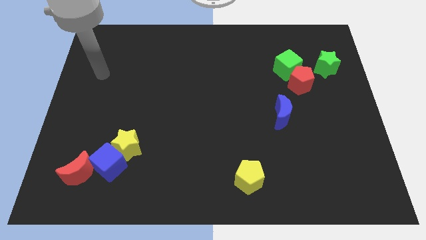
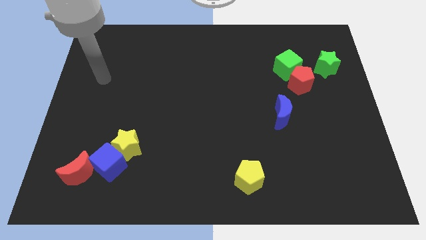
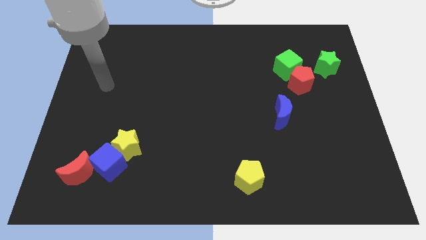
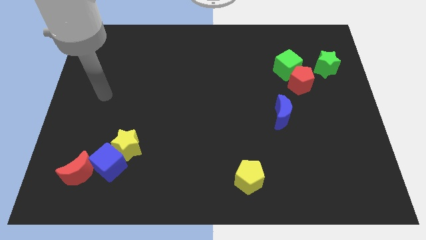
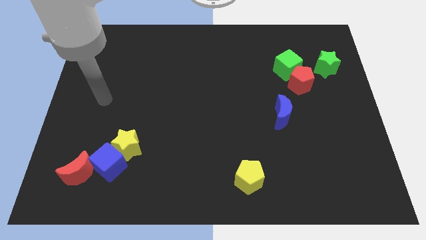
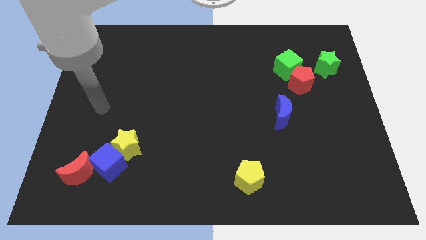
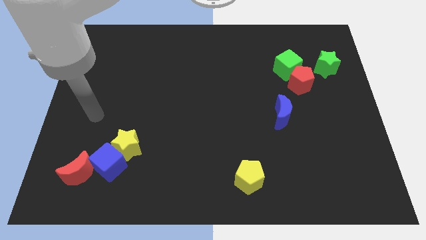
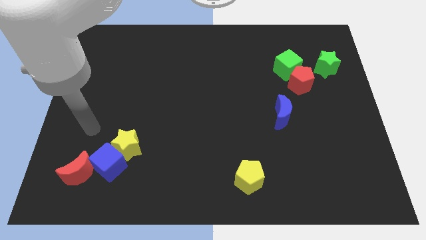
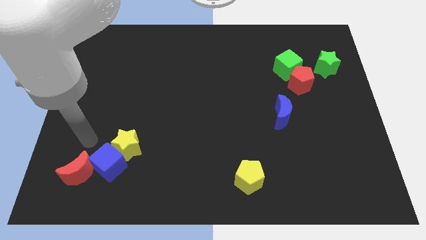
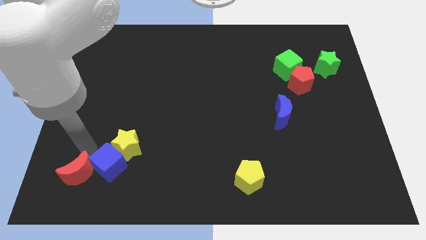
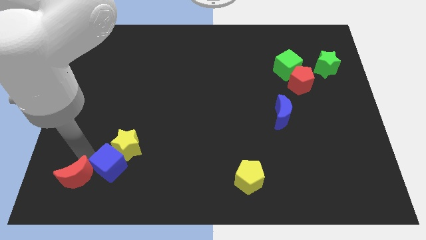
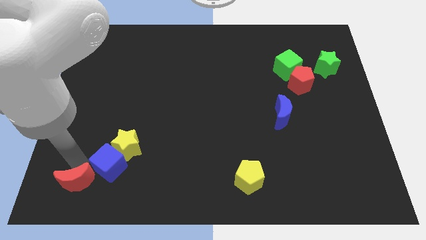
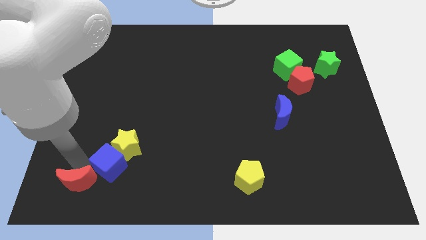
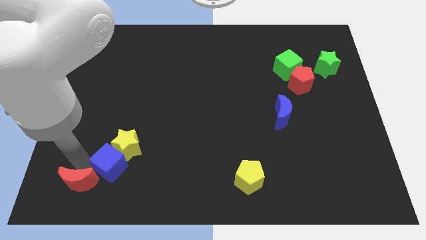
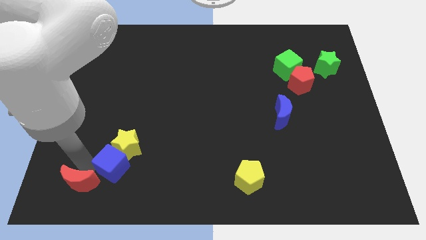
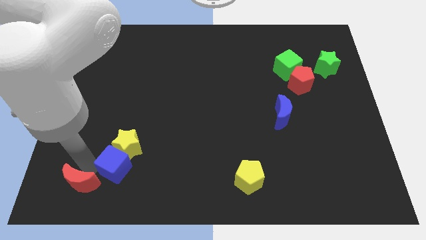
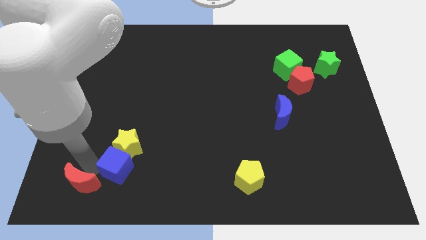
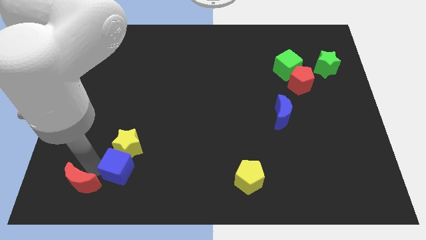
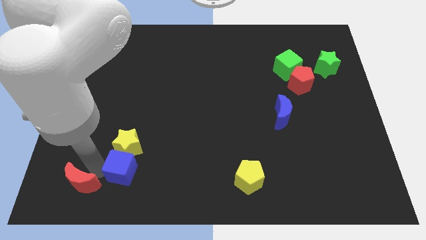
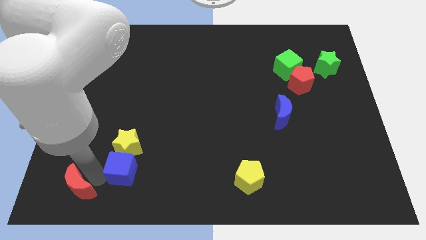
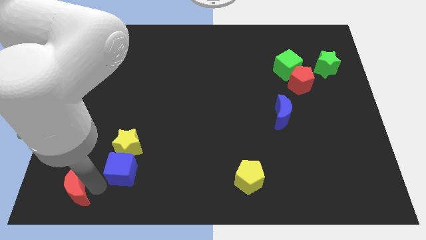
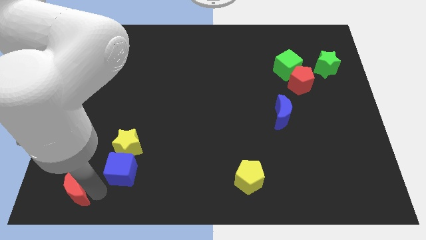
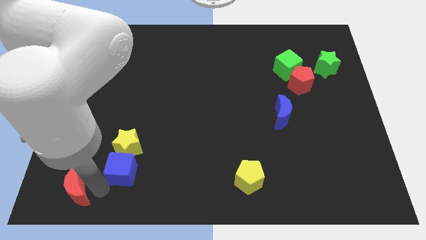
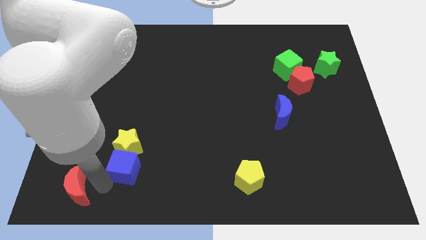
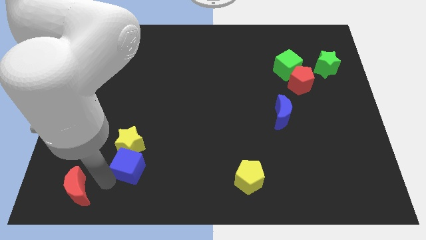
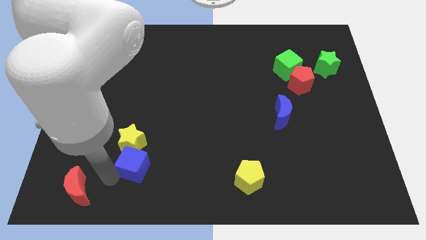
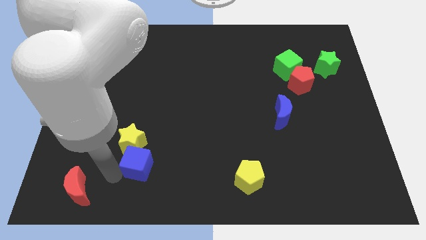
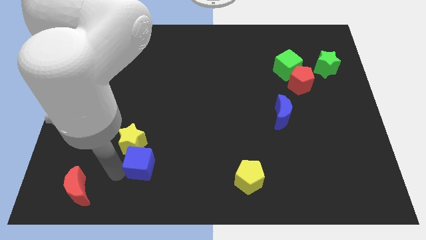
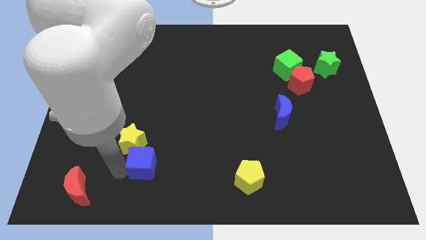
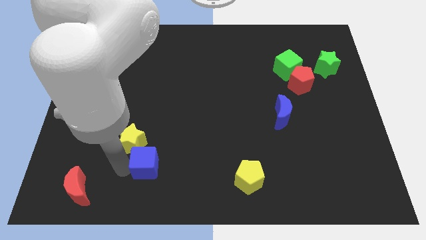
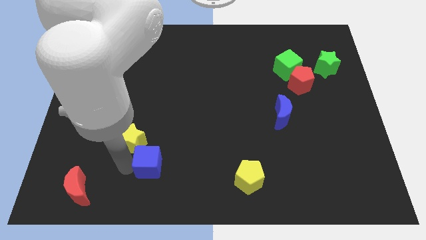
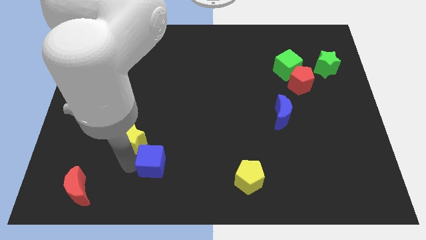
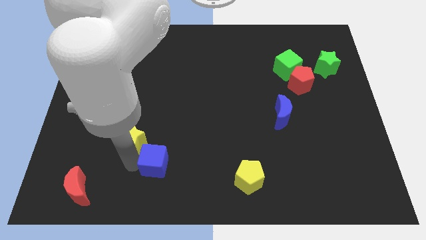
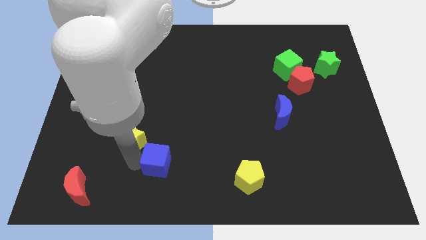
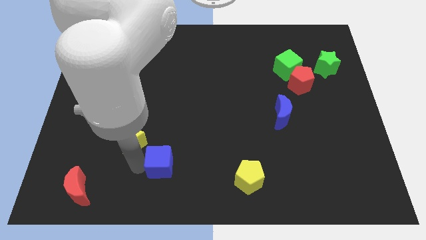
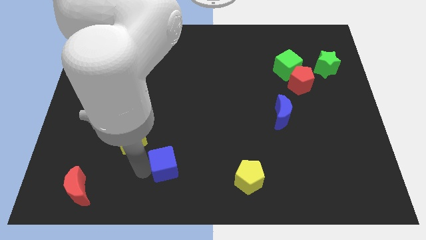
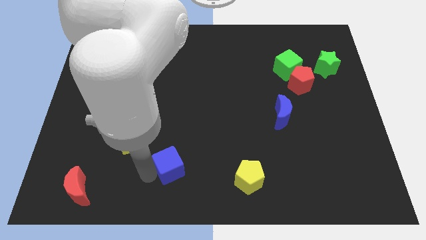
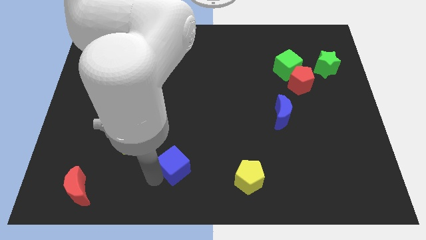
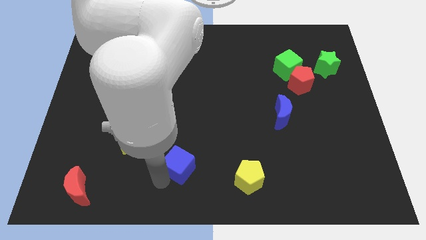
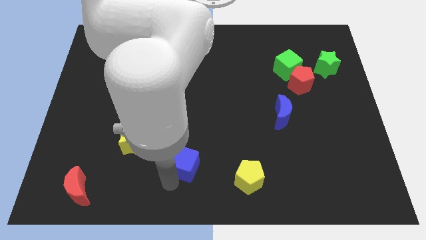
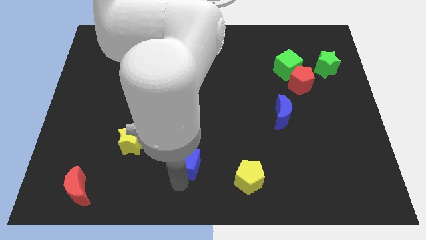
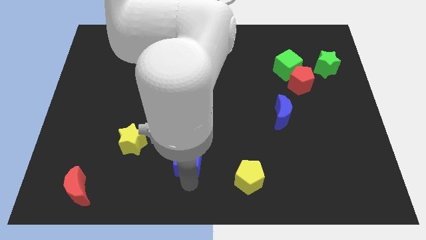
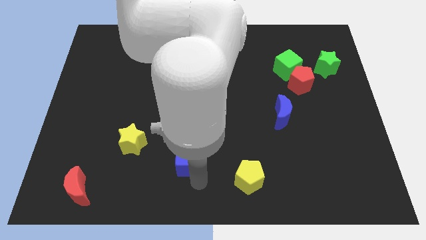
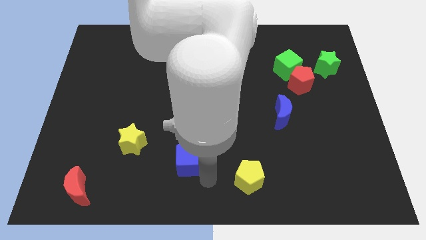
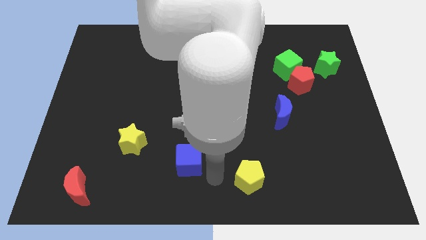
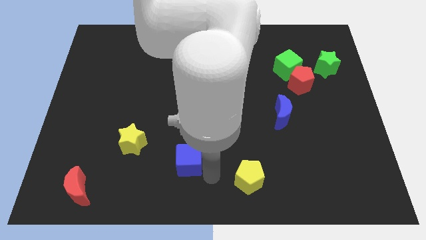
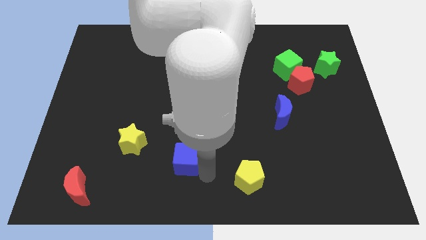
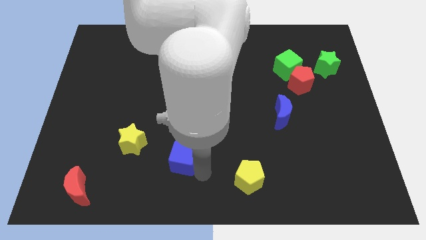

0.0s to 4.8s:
slide the blue cube diagonally up and to the right a bit

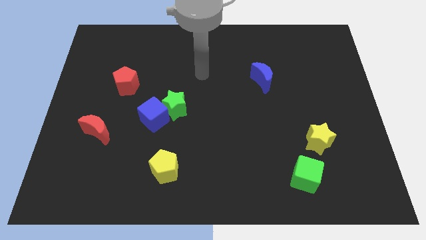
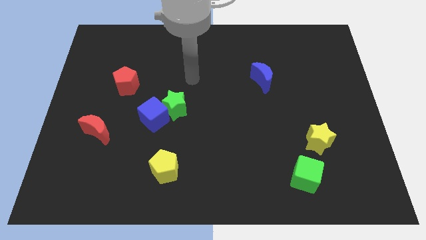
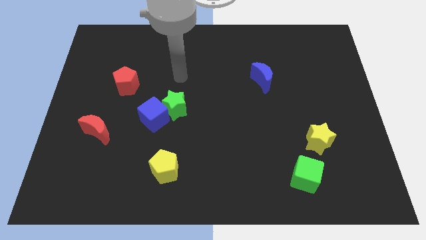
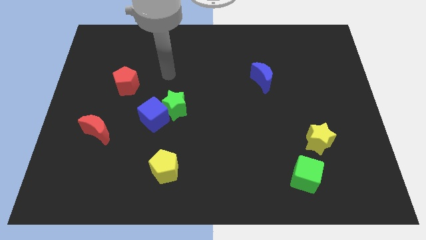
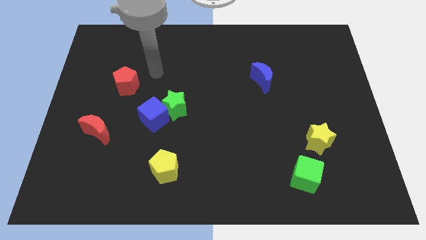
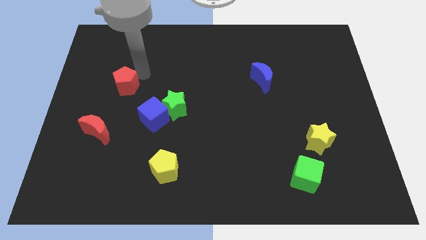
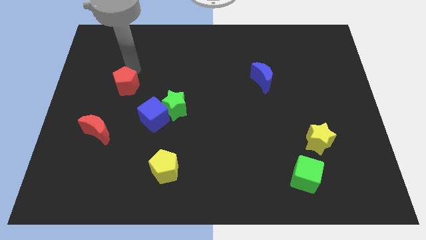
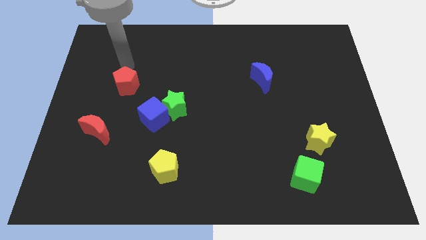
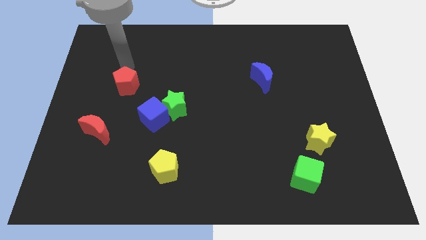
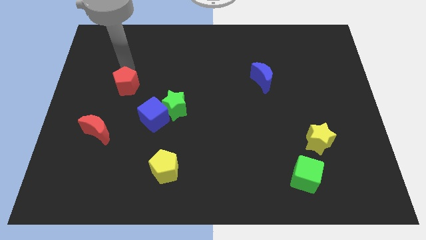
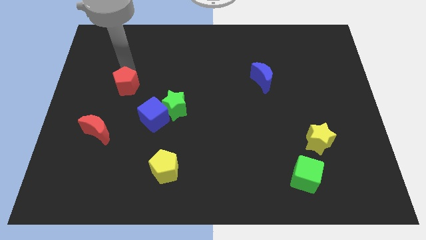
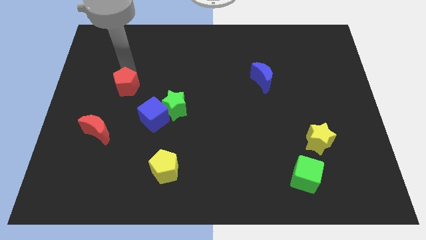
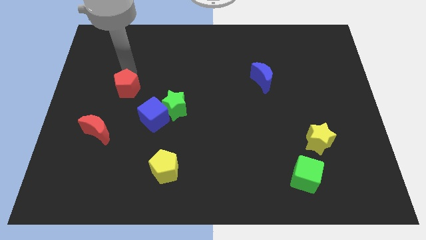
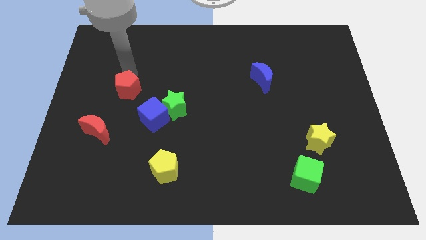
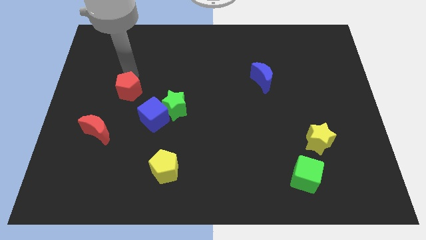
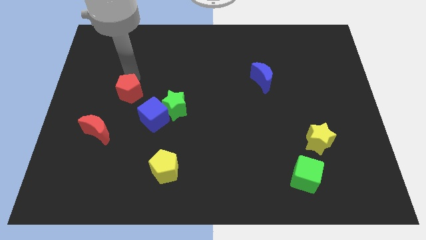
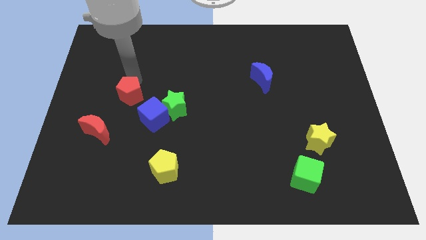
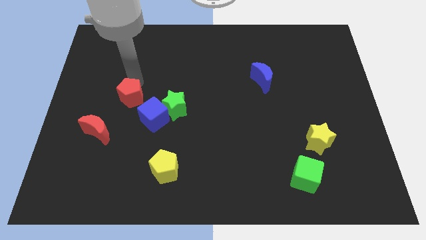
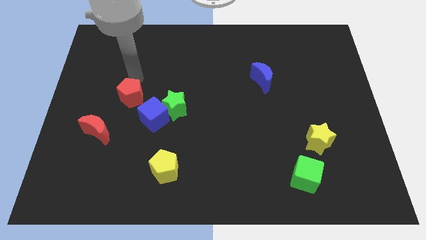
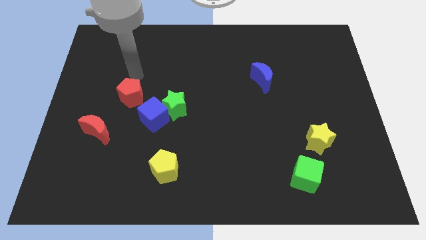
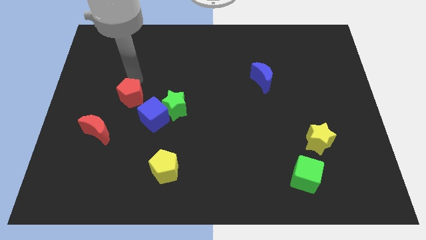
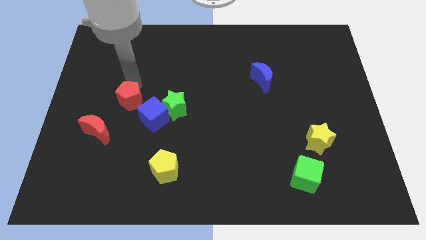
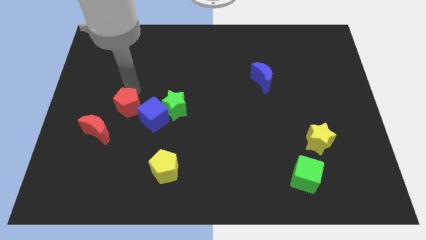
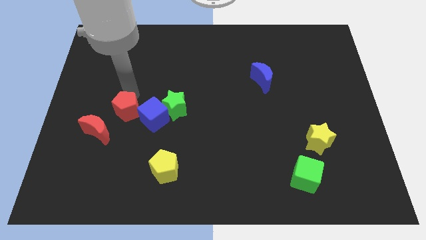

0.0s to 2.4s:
slide the red pentagon a bit downwards

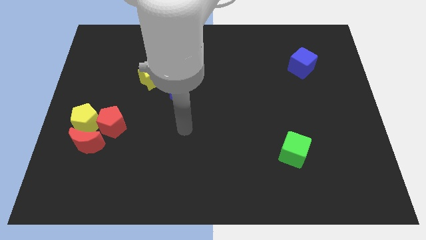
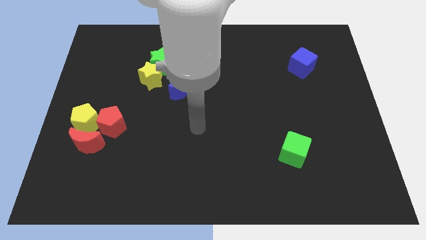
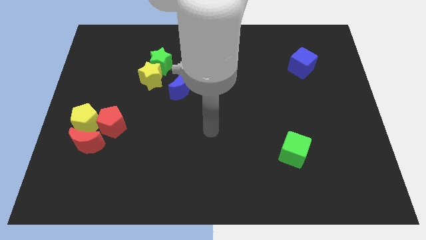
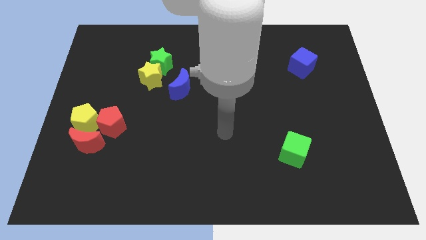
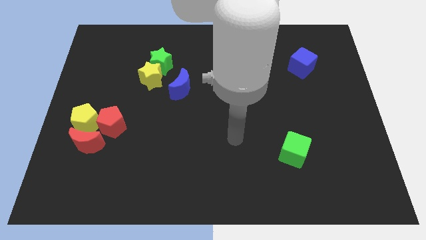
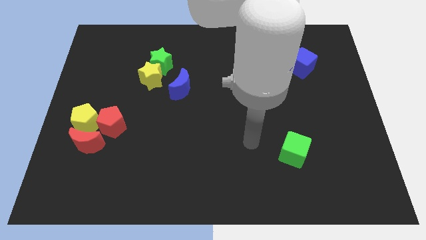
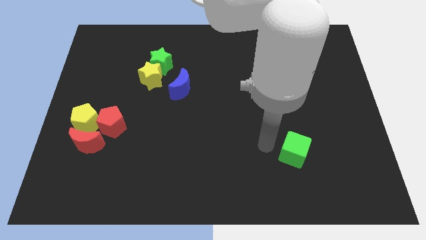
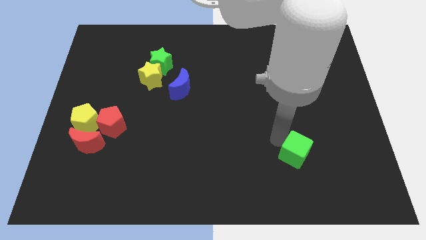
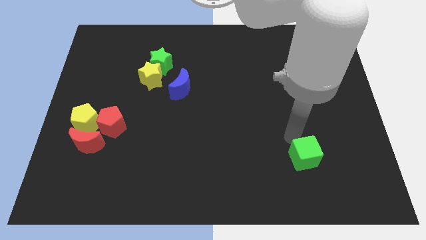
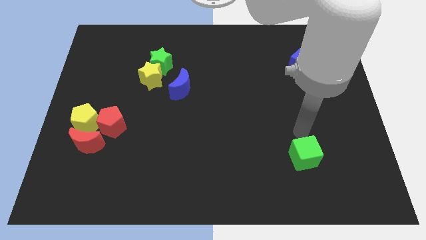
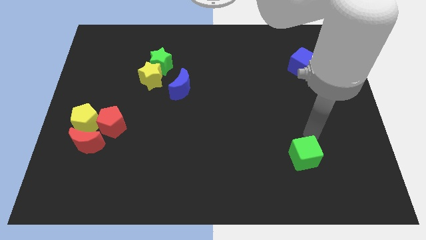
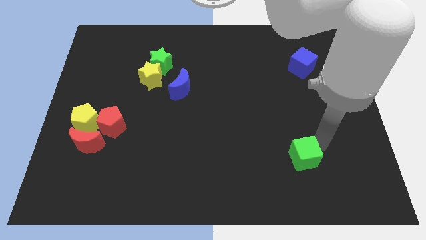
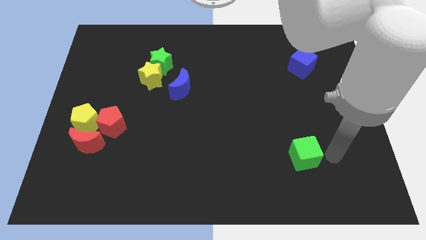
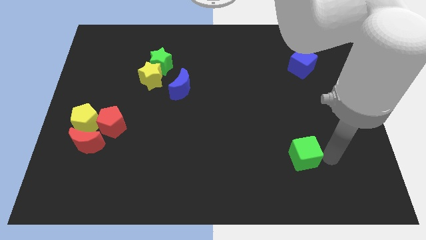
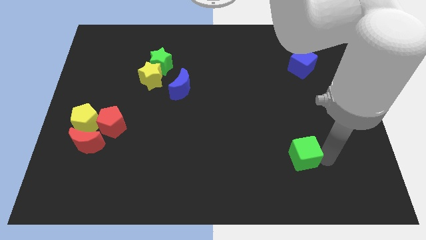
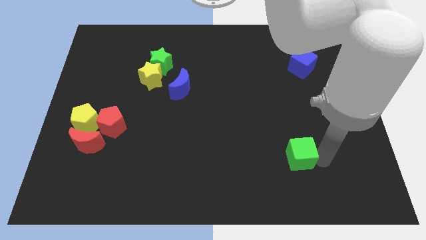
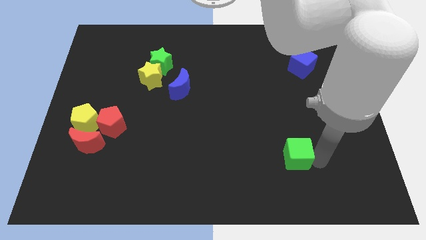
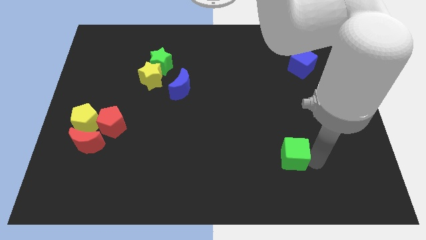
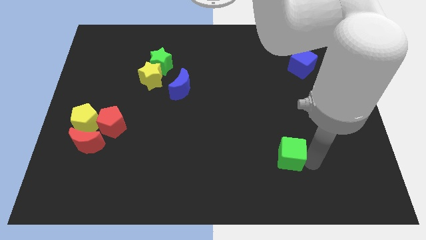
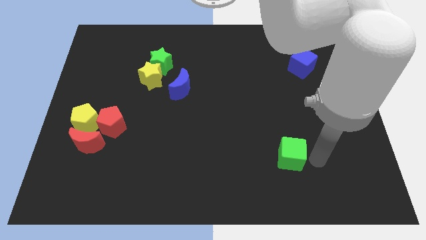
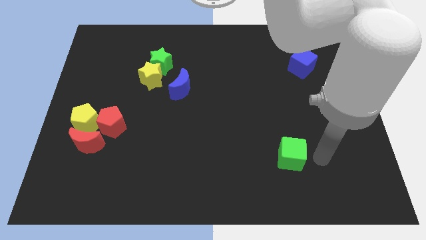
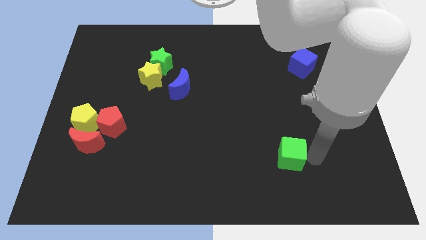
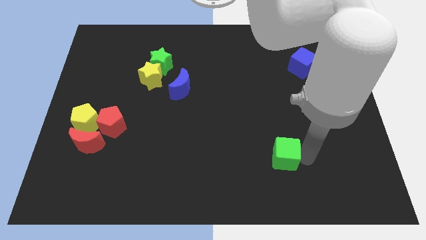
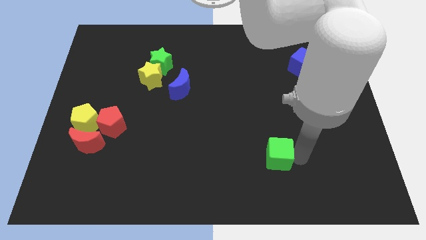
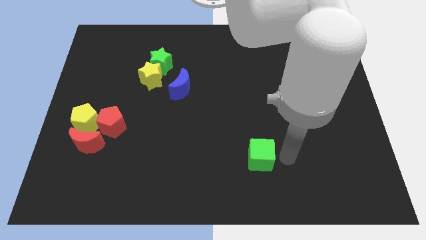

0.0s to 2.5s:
push the green cube a little bit to the left
